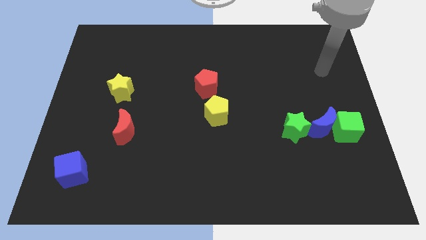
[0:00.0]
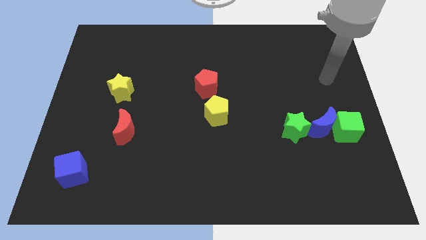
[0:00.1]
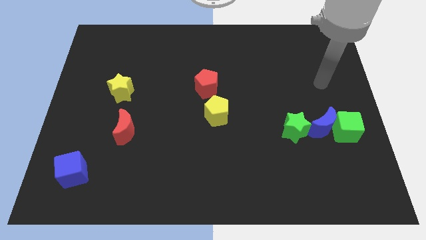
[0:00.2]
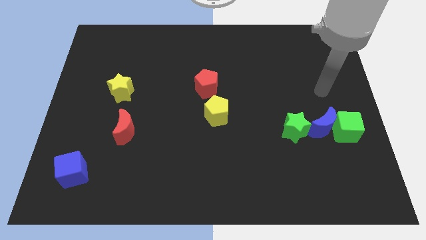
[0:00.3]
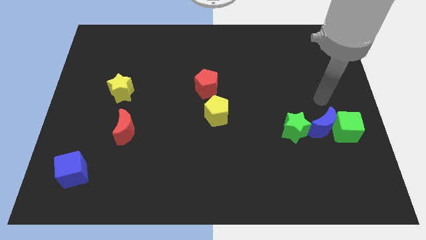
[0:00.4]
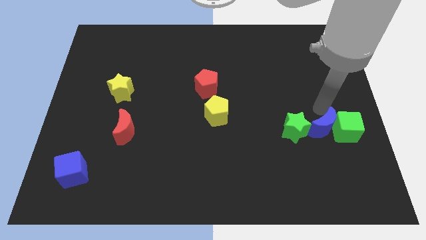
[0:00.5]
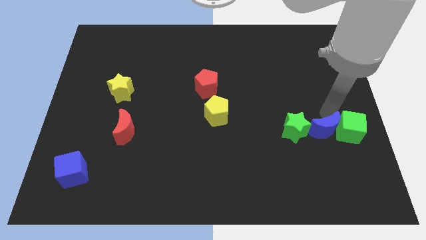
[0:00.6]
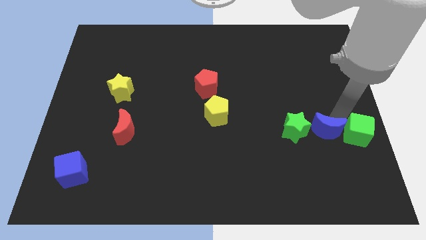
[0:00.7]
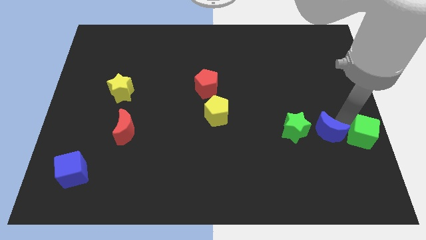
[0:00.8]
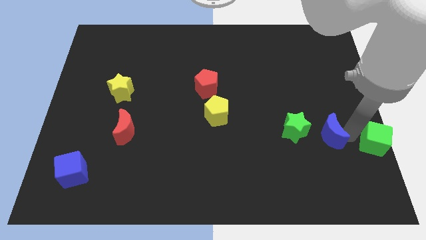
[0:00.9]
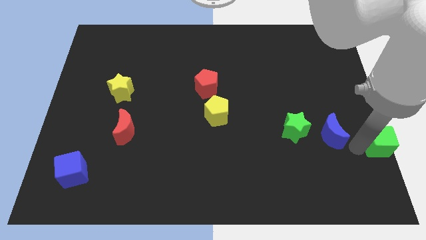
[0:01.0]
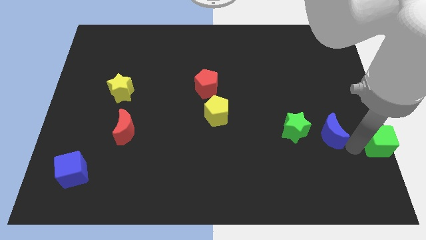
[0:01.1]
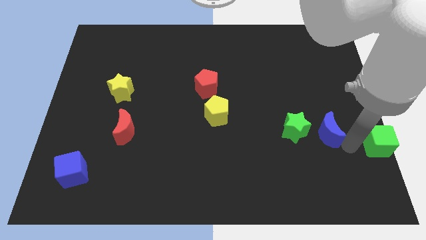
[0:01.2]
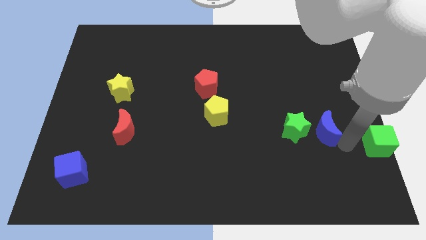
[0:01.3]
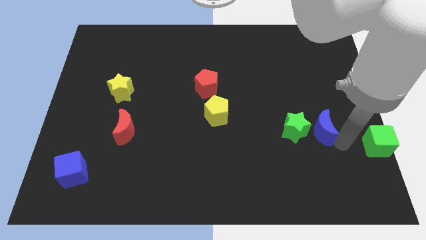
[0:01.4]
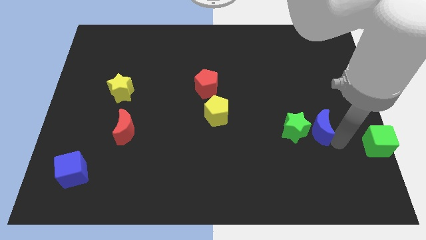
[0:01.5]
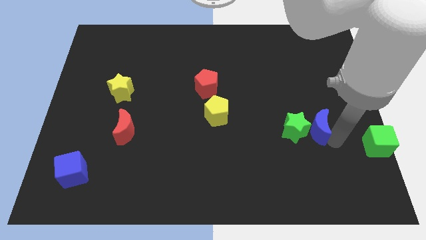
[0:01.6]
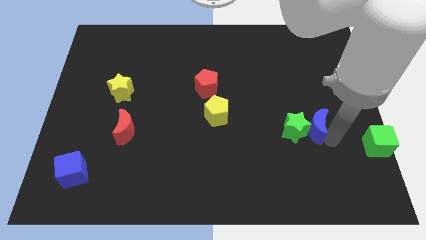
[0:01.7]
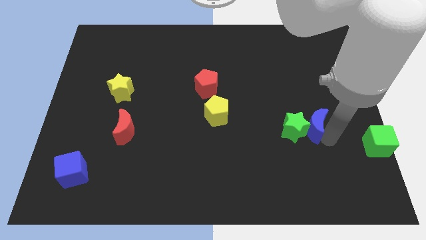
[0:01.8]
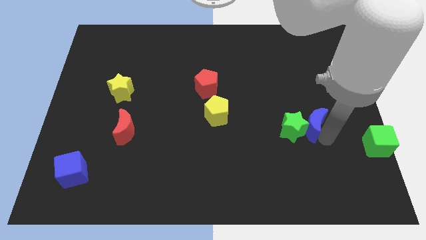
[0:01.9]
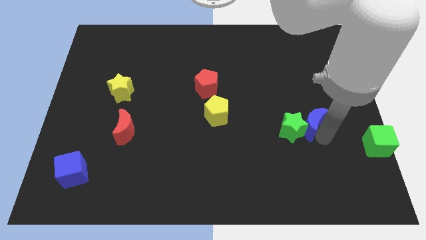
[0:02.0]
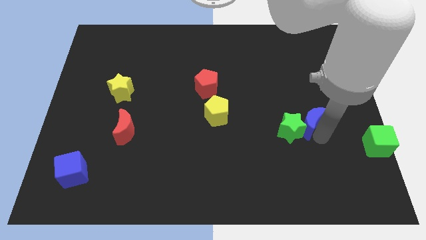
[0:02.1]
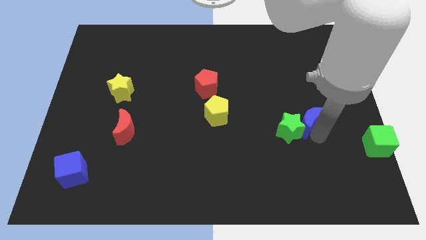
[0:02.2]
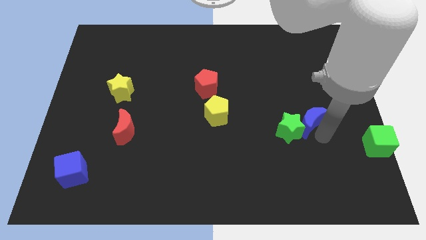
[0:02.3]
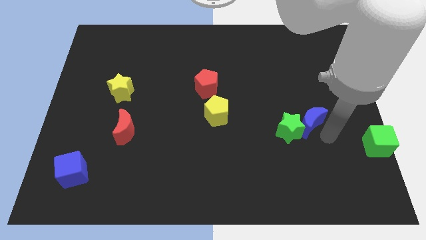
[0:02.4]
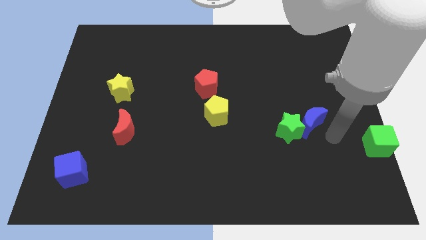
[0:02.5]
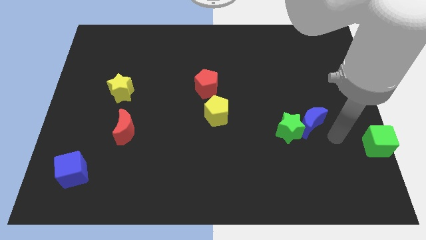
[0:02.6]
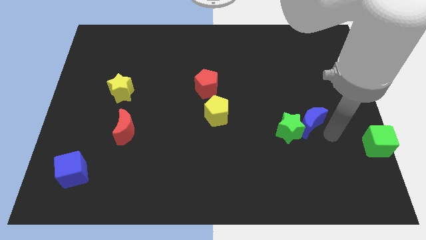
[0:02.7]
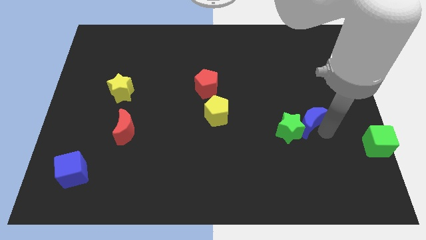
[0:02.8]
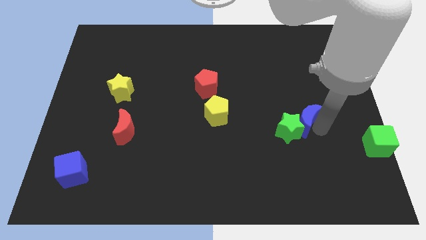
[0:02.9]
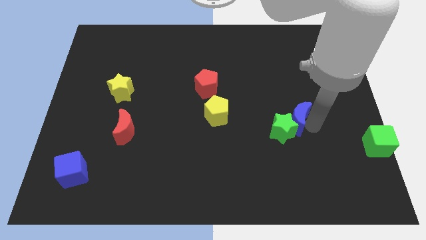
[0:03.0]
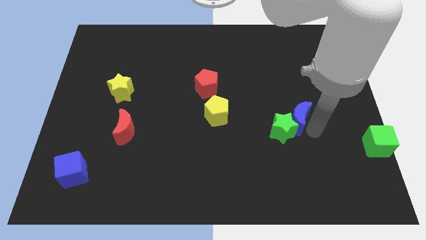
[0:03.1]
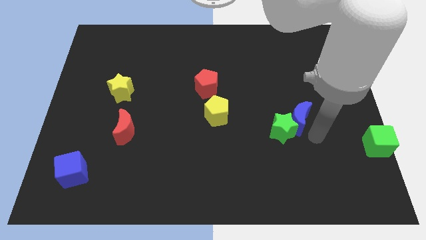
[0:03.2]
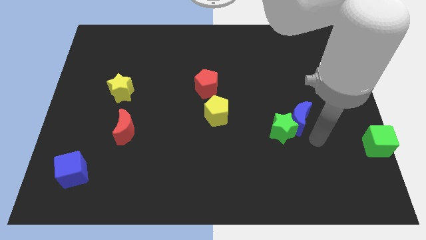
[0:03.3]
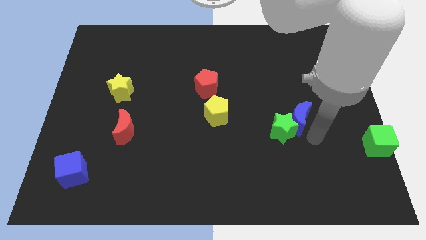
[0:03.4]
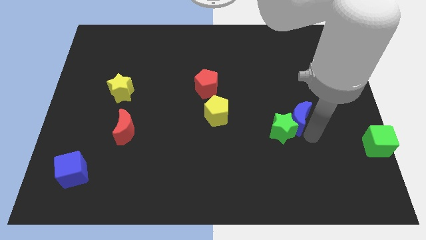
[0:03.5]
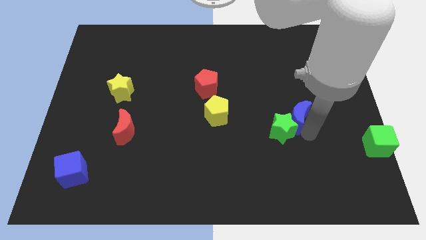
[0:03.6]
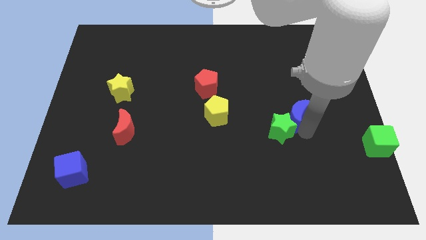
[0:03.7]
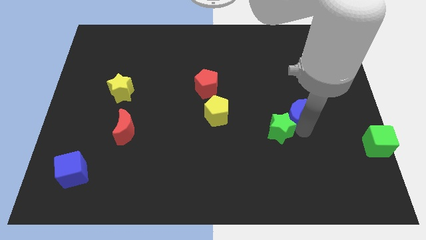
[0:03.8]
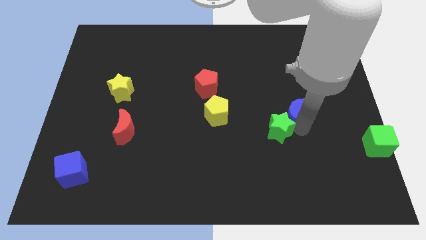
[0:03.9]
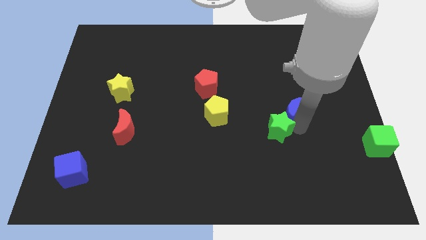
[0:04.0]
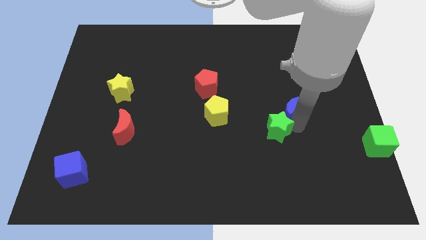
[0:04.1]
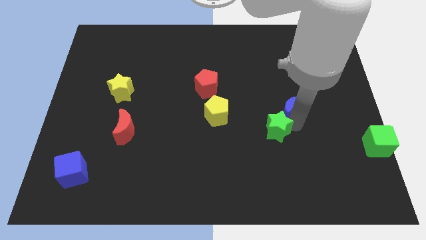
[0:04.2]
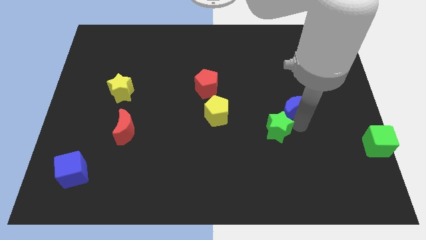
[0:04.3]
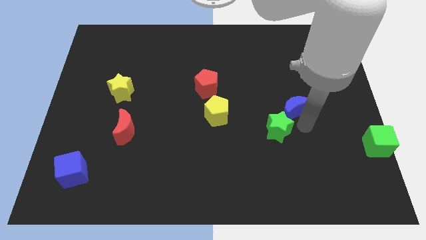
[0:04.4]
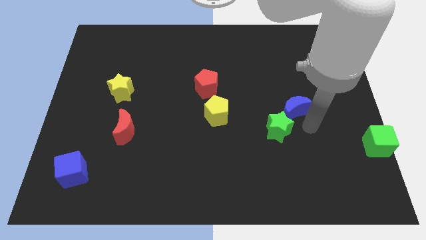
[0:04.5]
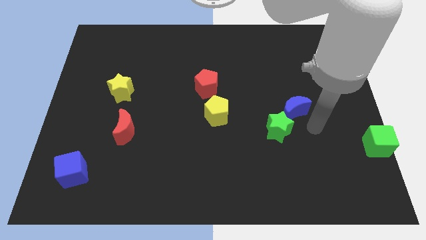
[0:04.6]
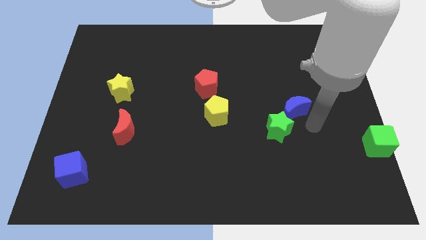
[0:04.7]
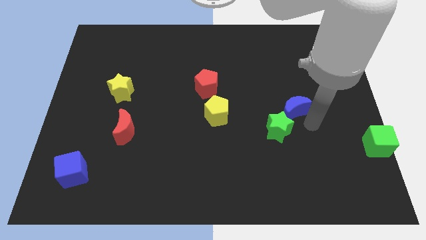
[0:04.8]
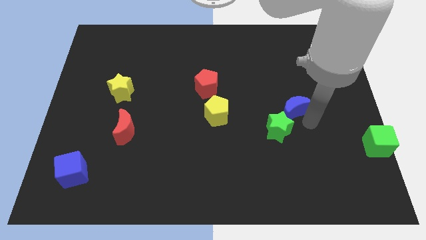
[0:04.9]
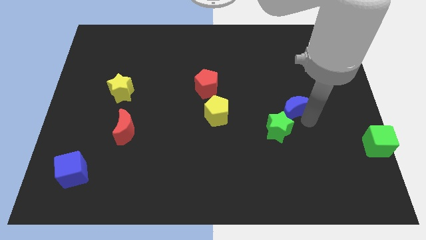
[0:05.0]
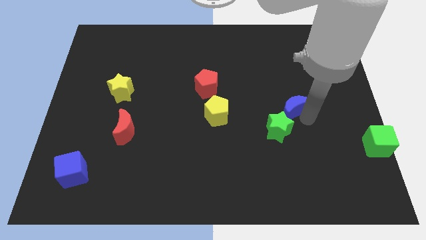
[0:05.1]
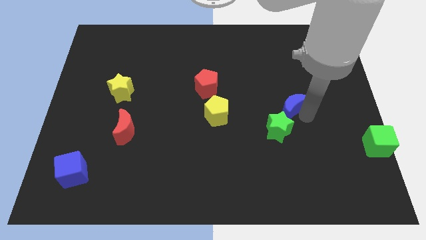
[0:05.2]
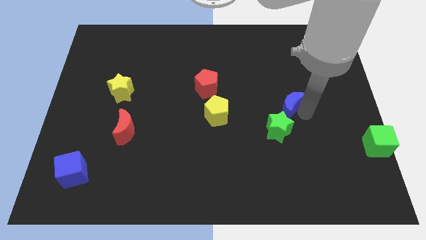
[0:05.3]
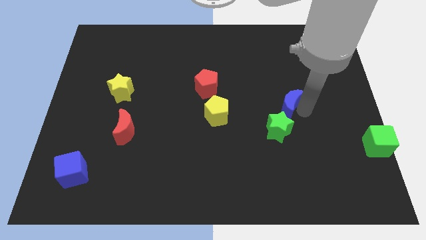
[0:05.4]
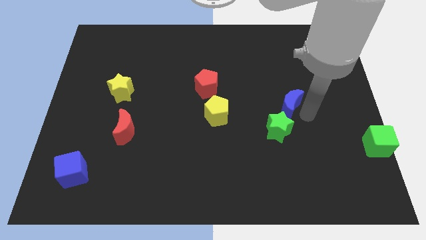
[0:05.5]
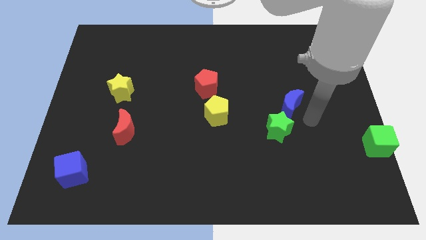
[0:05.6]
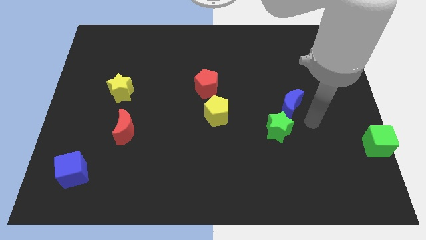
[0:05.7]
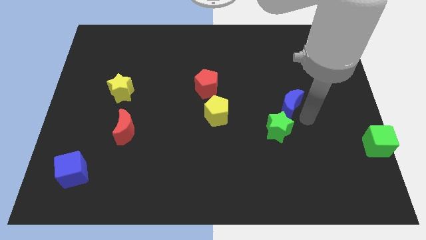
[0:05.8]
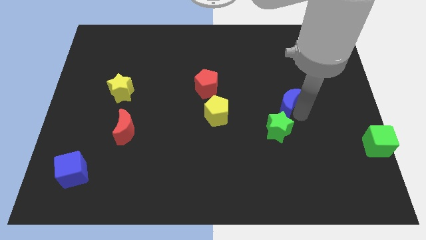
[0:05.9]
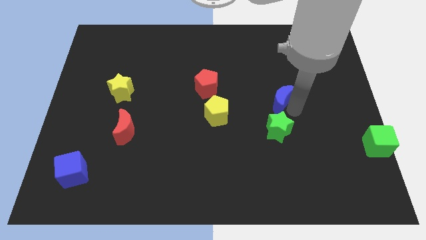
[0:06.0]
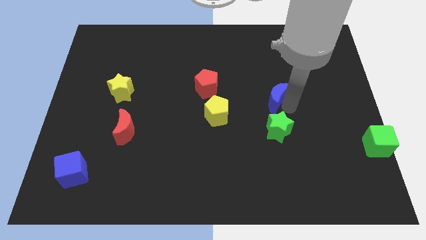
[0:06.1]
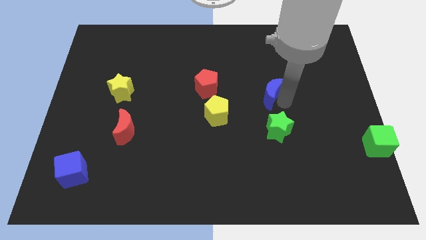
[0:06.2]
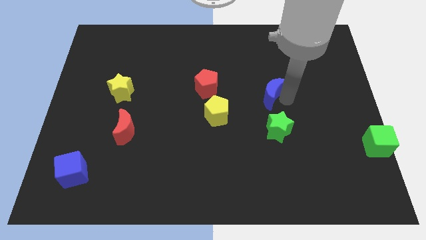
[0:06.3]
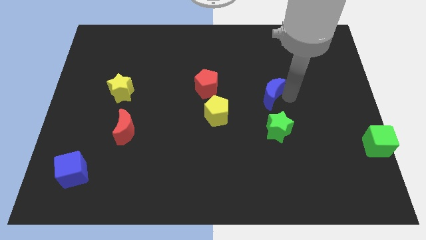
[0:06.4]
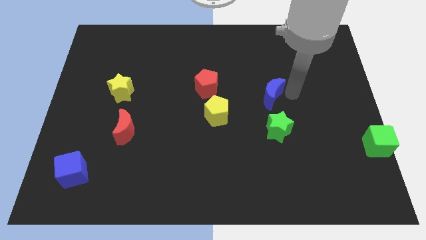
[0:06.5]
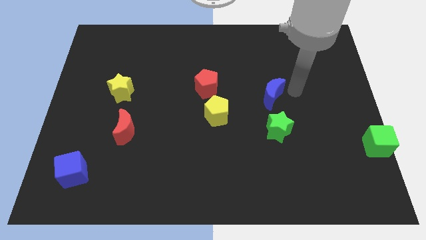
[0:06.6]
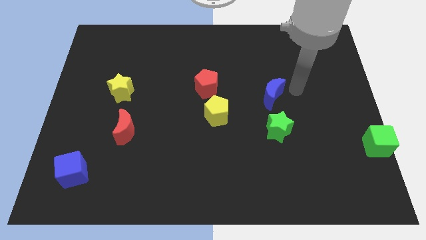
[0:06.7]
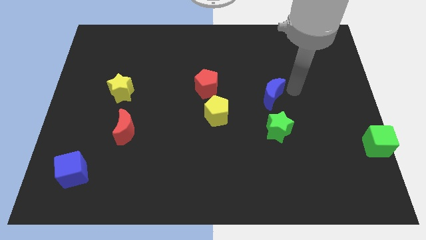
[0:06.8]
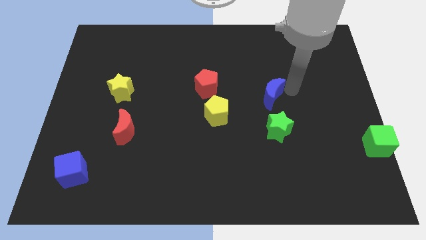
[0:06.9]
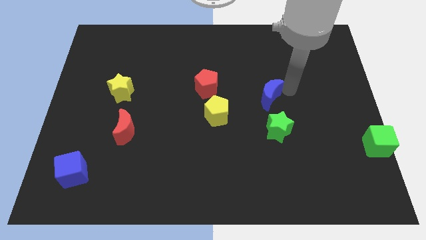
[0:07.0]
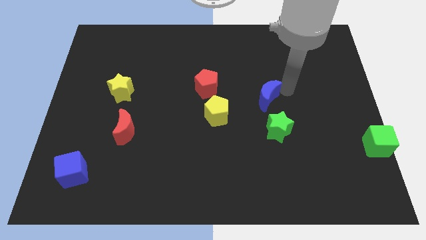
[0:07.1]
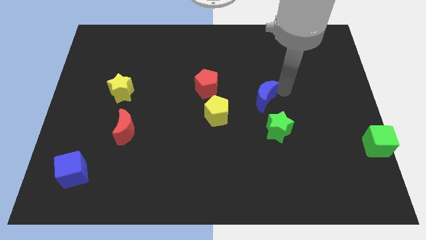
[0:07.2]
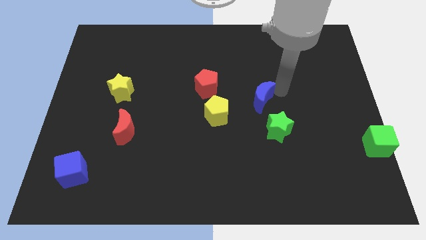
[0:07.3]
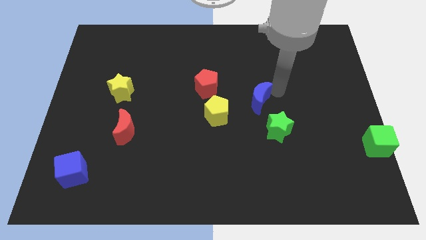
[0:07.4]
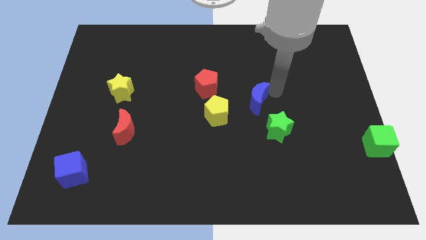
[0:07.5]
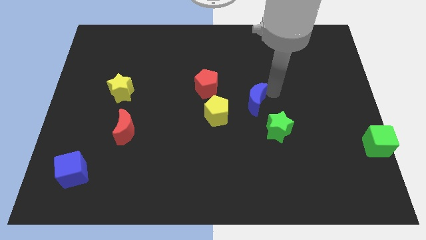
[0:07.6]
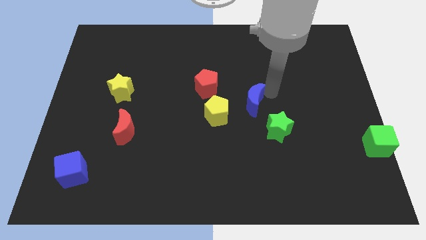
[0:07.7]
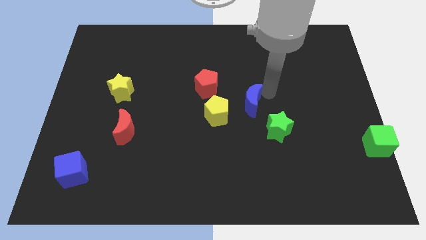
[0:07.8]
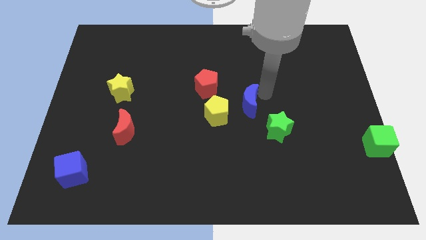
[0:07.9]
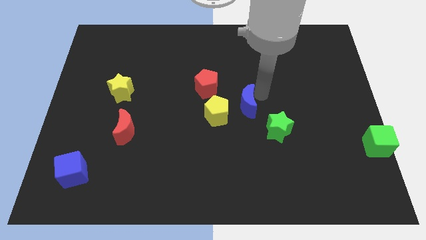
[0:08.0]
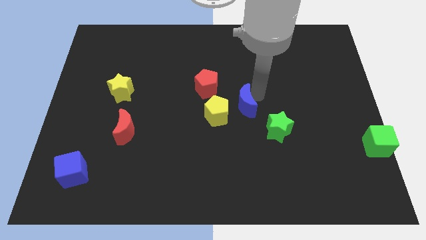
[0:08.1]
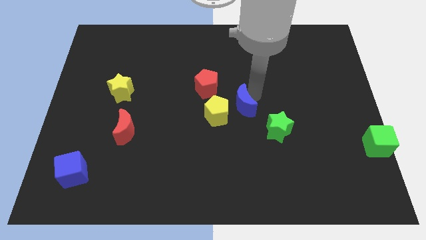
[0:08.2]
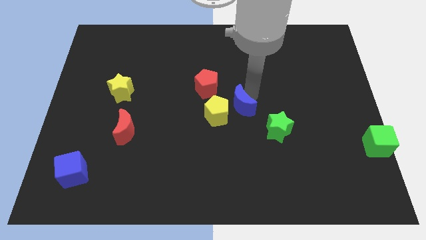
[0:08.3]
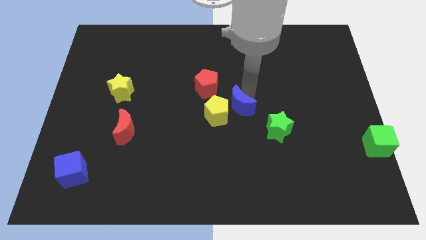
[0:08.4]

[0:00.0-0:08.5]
put the blue moon towards the yellow pentagon
